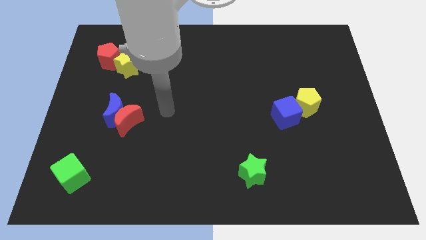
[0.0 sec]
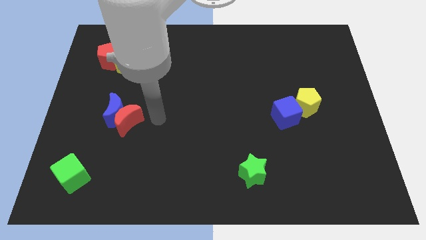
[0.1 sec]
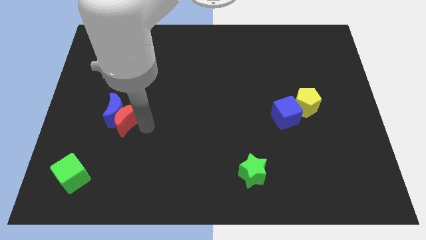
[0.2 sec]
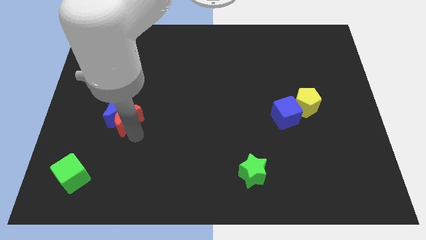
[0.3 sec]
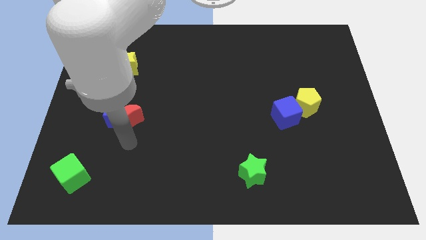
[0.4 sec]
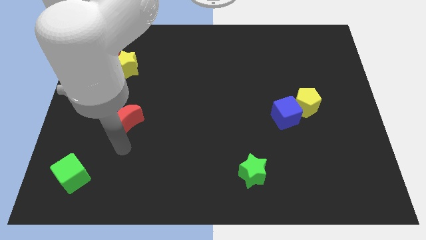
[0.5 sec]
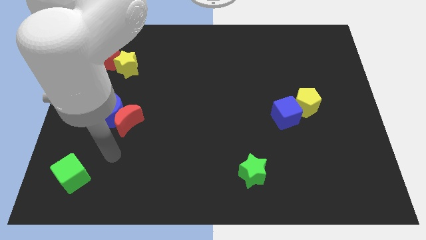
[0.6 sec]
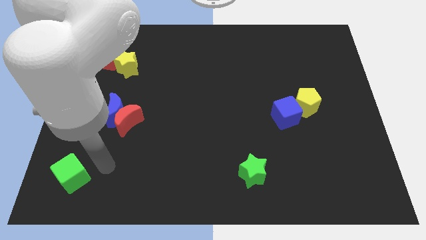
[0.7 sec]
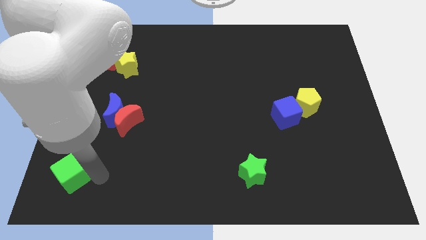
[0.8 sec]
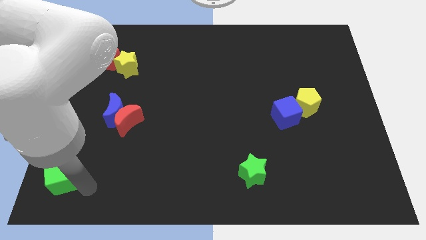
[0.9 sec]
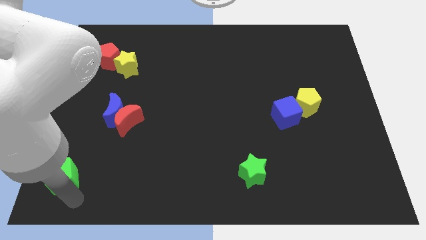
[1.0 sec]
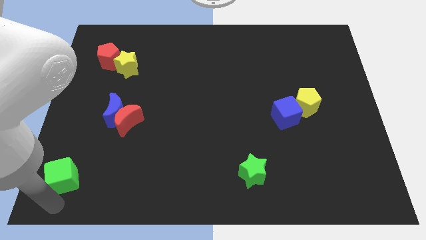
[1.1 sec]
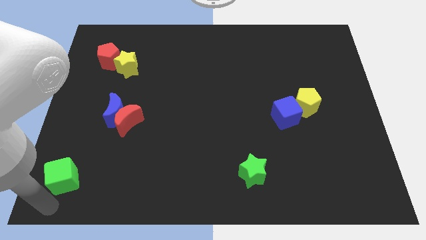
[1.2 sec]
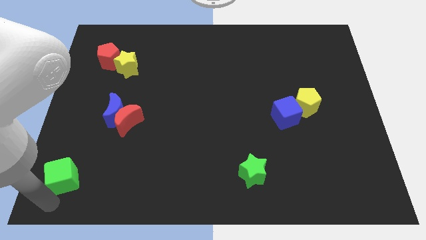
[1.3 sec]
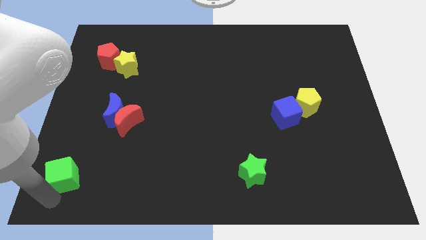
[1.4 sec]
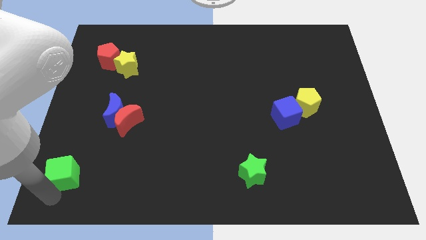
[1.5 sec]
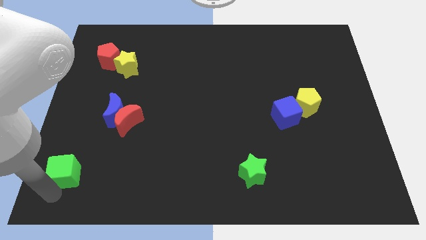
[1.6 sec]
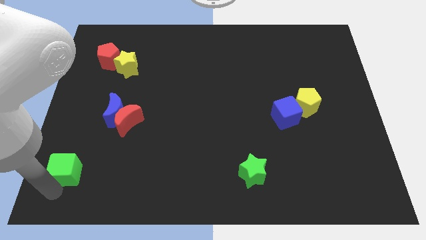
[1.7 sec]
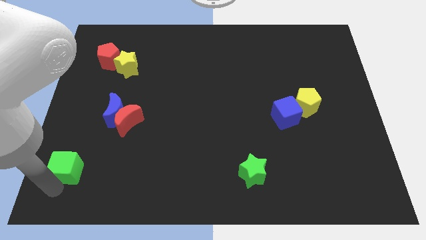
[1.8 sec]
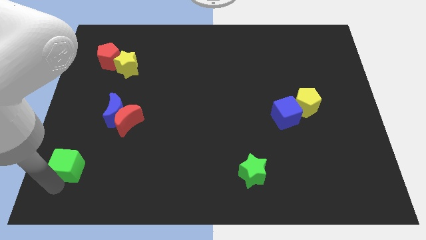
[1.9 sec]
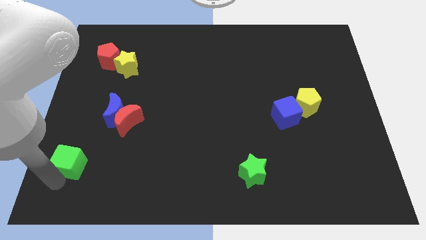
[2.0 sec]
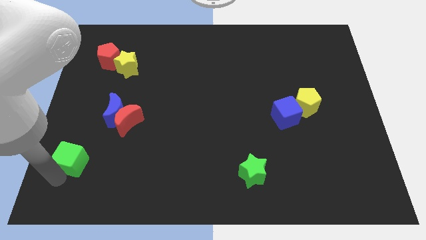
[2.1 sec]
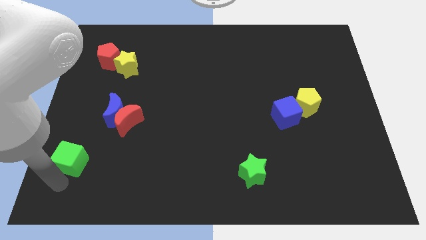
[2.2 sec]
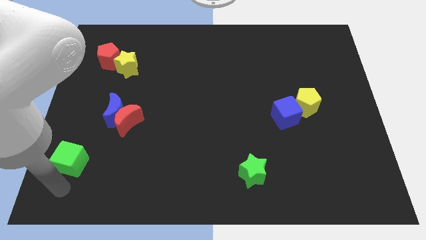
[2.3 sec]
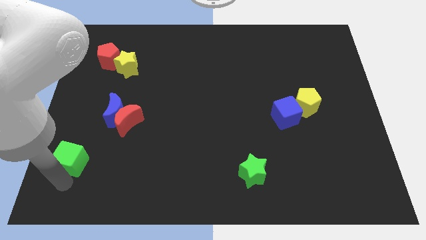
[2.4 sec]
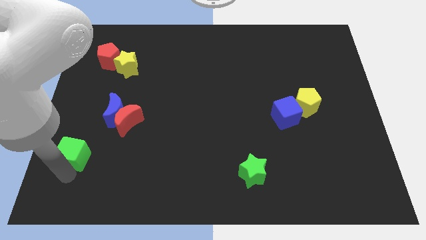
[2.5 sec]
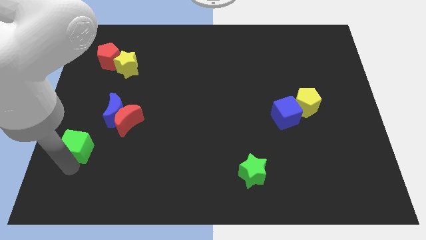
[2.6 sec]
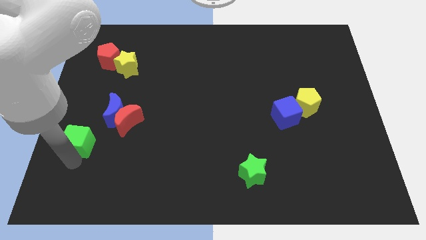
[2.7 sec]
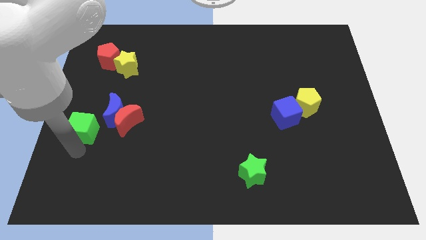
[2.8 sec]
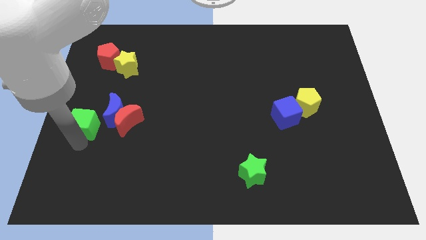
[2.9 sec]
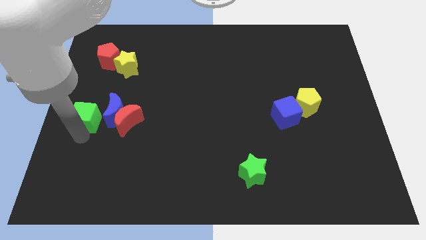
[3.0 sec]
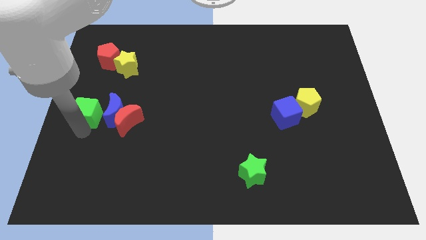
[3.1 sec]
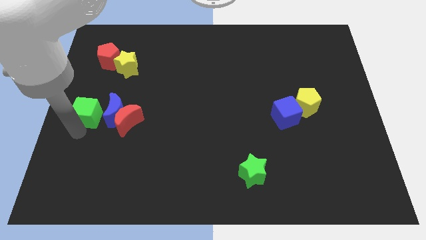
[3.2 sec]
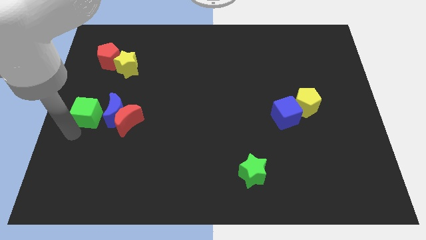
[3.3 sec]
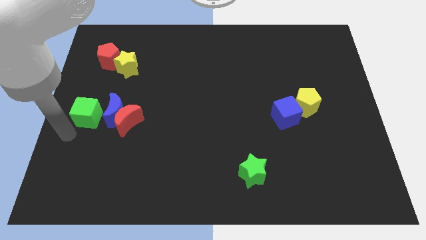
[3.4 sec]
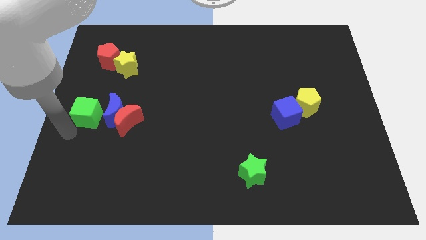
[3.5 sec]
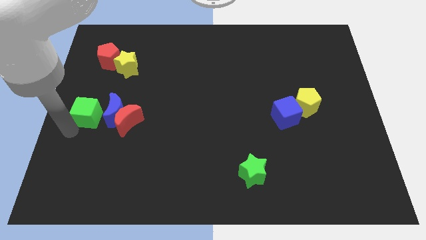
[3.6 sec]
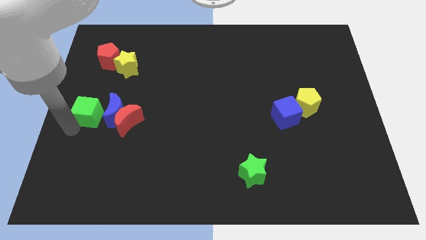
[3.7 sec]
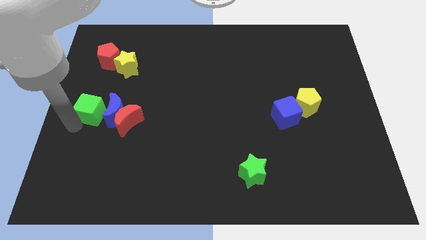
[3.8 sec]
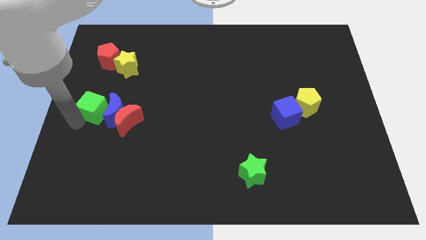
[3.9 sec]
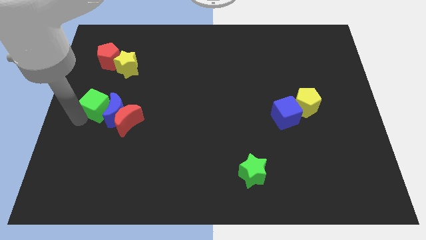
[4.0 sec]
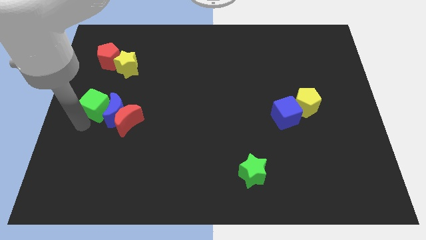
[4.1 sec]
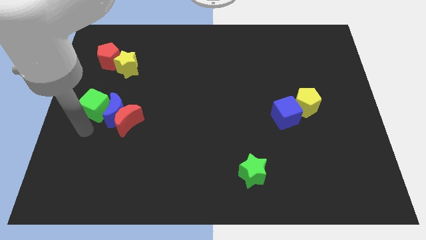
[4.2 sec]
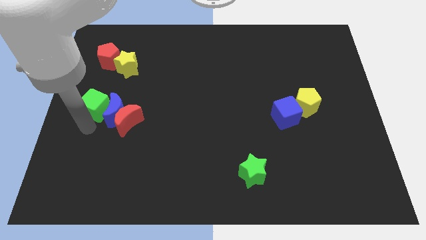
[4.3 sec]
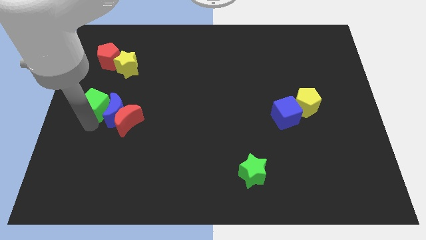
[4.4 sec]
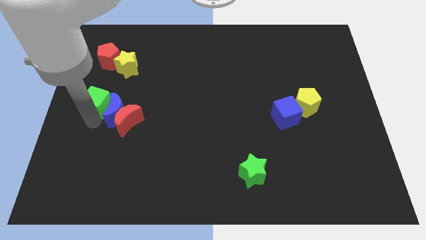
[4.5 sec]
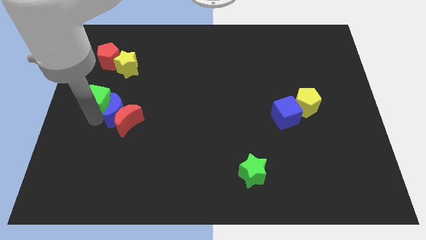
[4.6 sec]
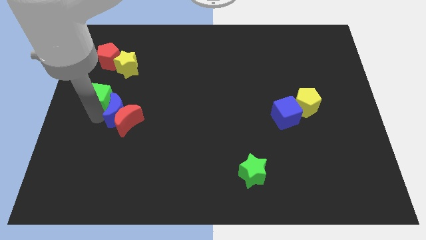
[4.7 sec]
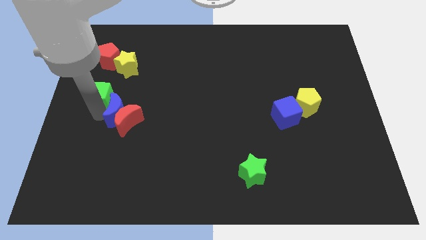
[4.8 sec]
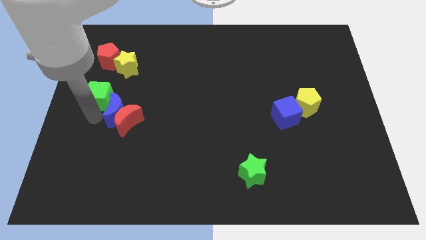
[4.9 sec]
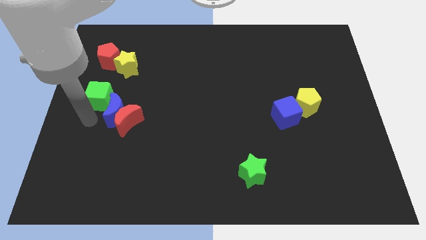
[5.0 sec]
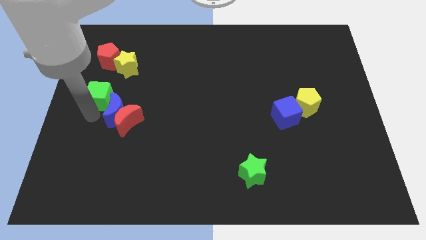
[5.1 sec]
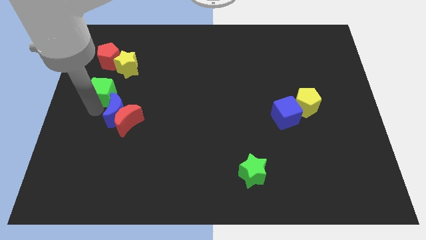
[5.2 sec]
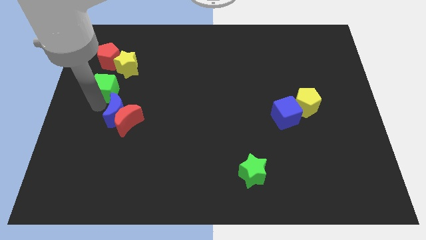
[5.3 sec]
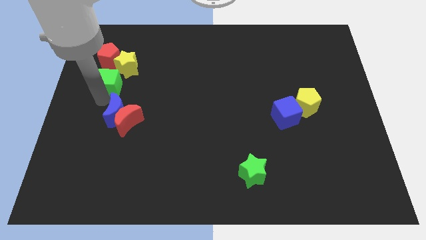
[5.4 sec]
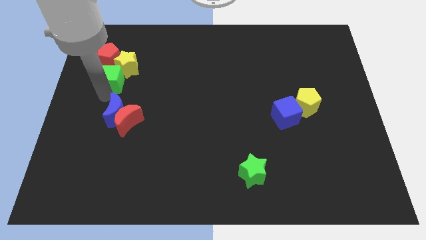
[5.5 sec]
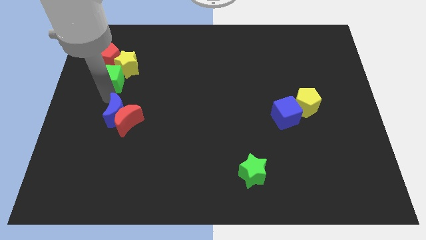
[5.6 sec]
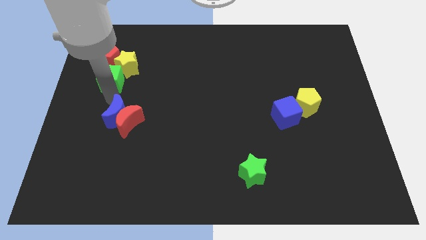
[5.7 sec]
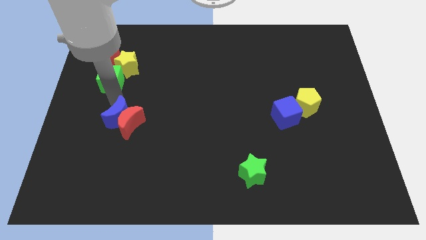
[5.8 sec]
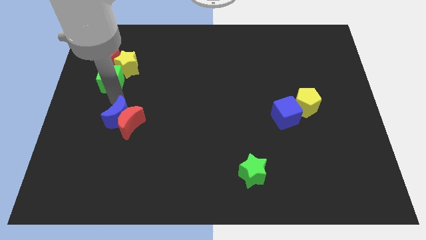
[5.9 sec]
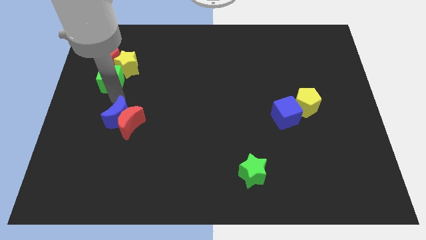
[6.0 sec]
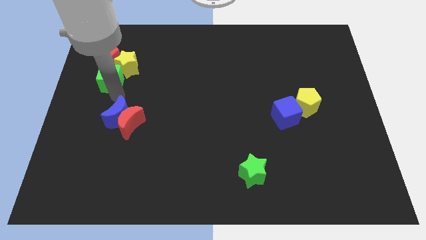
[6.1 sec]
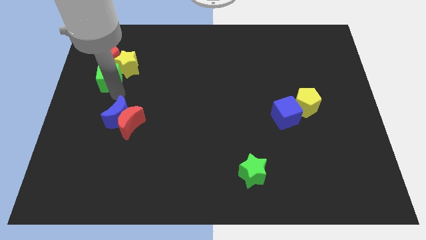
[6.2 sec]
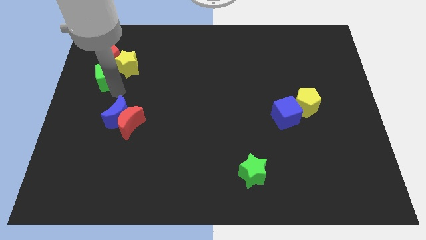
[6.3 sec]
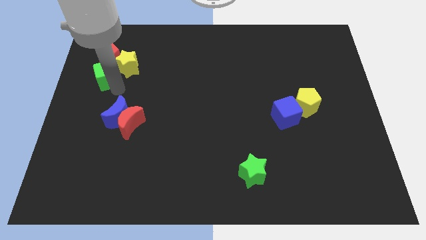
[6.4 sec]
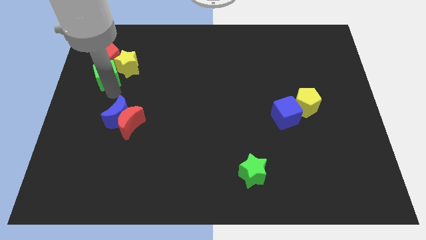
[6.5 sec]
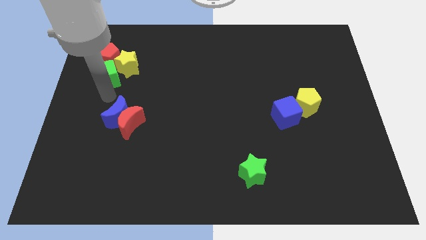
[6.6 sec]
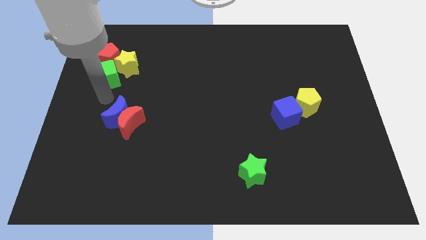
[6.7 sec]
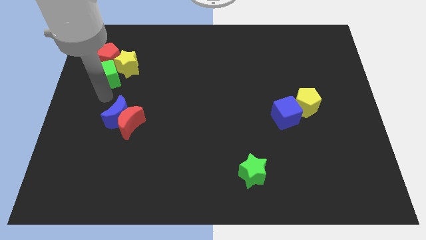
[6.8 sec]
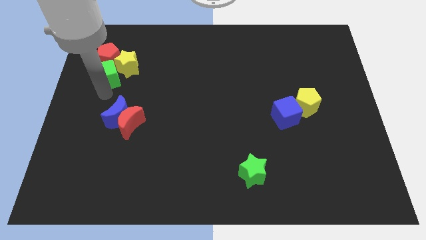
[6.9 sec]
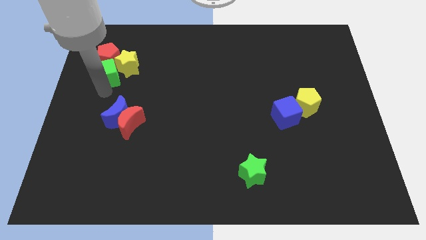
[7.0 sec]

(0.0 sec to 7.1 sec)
put the green cube close to the red pentagon

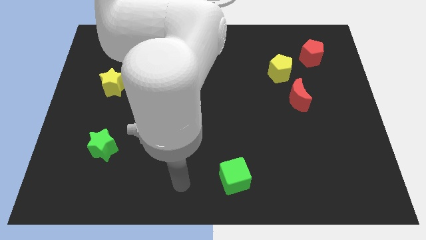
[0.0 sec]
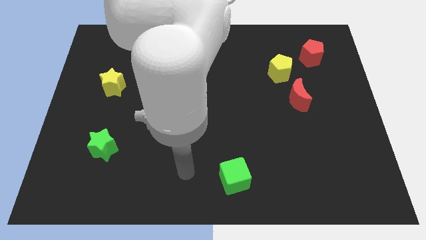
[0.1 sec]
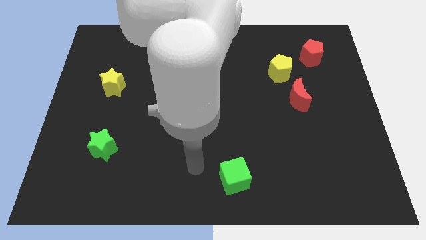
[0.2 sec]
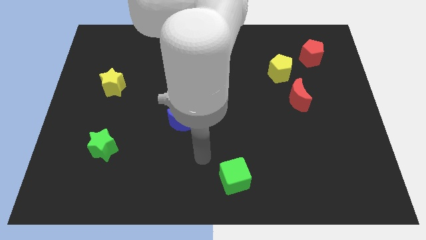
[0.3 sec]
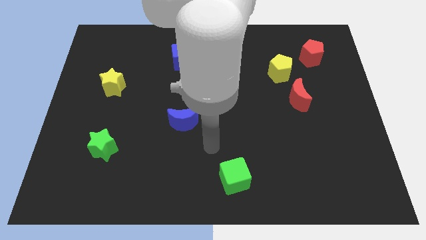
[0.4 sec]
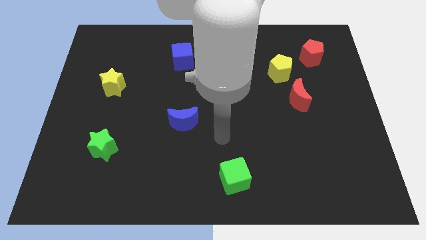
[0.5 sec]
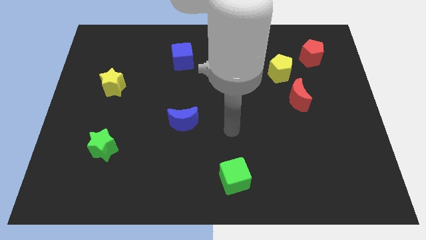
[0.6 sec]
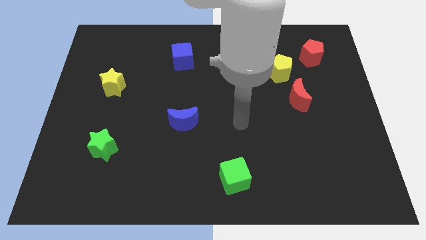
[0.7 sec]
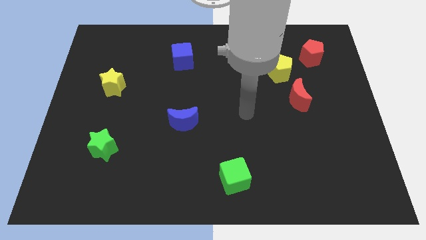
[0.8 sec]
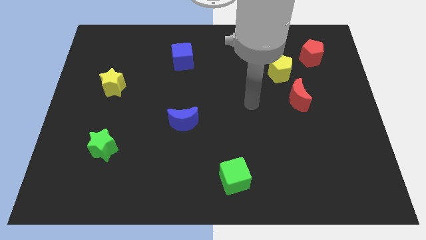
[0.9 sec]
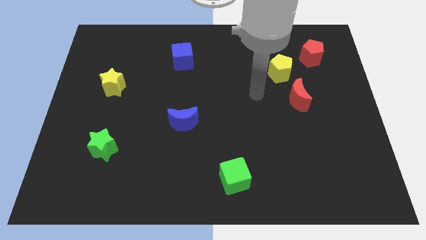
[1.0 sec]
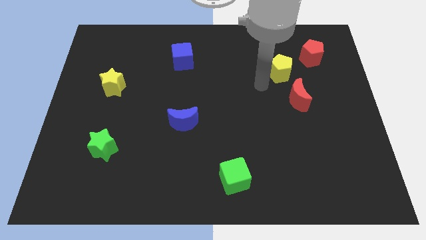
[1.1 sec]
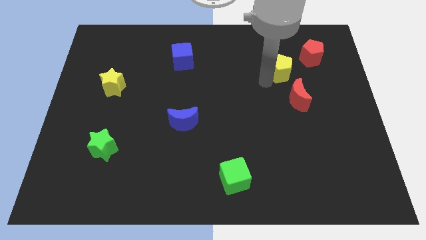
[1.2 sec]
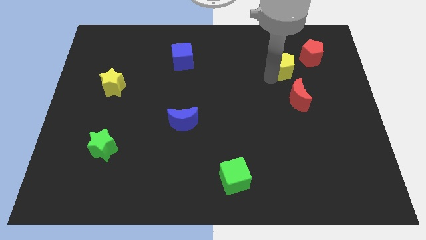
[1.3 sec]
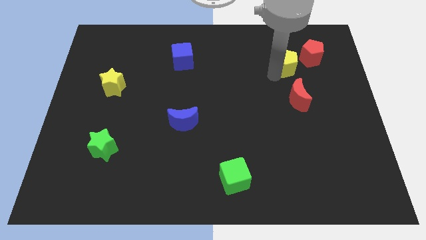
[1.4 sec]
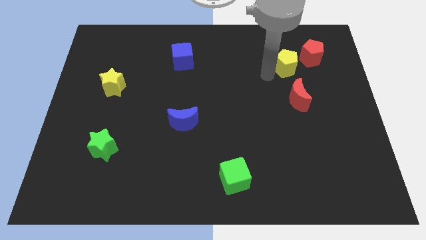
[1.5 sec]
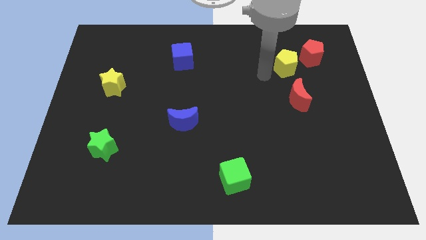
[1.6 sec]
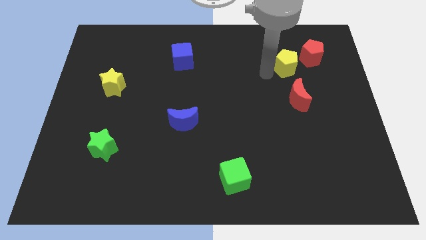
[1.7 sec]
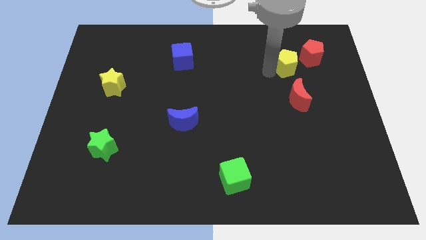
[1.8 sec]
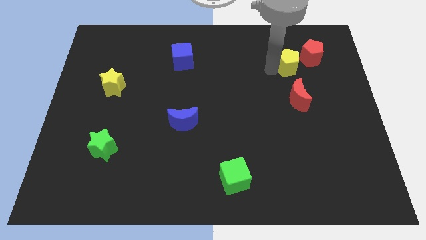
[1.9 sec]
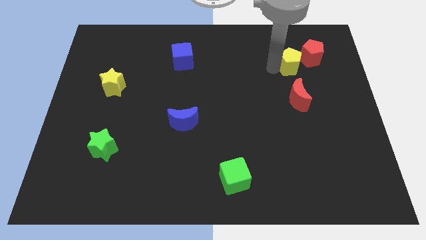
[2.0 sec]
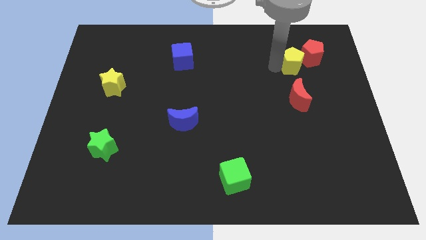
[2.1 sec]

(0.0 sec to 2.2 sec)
push the yellow pentagon next to the red pentagon
